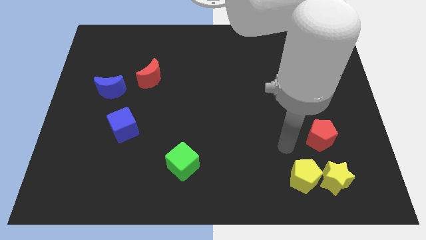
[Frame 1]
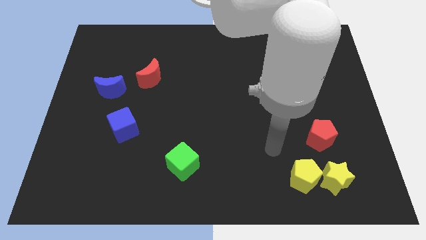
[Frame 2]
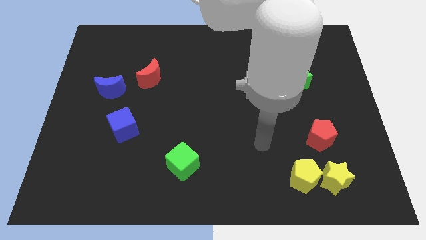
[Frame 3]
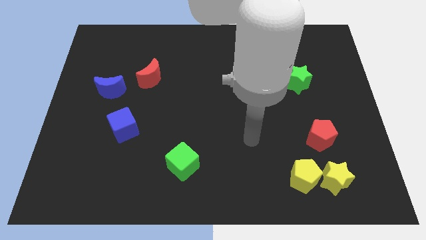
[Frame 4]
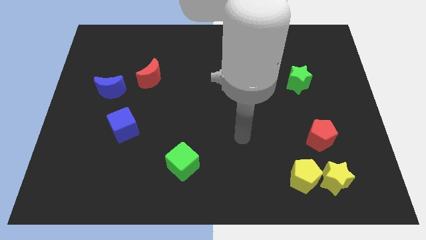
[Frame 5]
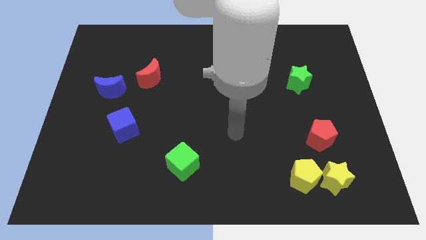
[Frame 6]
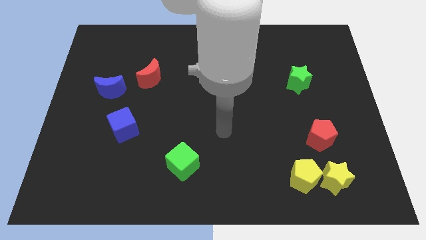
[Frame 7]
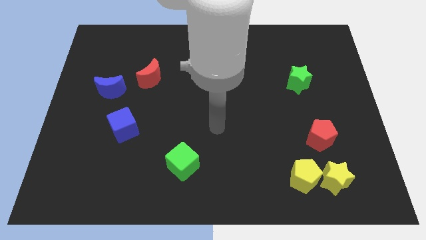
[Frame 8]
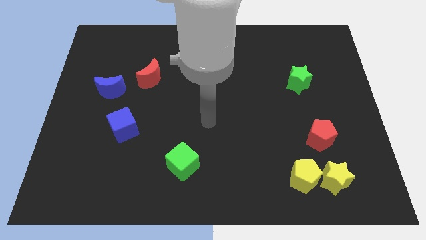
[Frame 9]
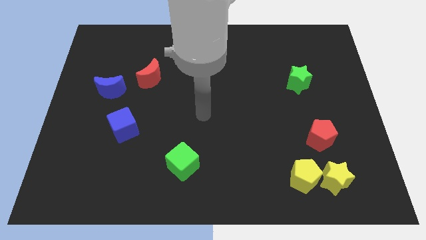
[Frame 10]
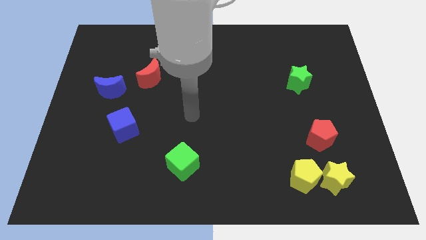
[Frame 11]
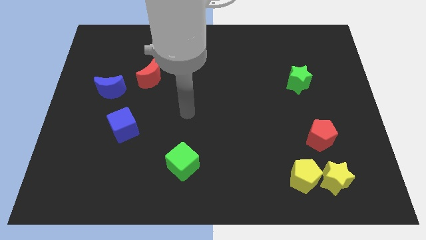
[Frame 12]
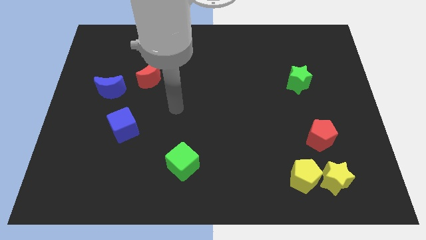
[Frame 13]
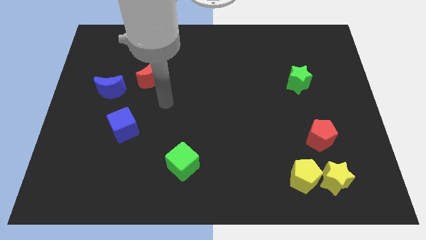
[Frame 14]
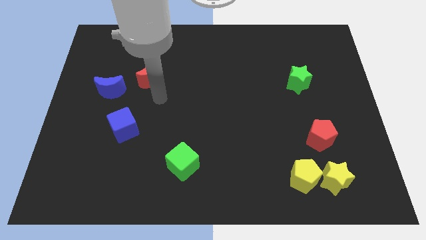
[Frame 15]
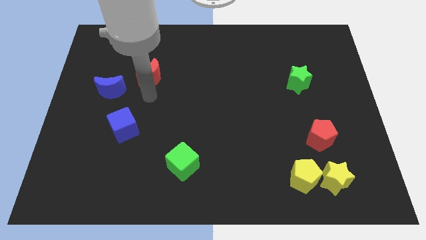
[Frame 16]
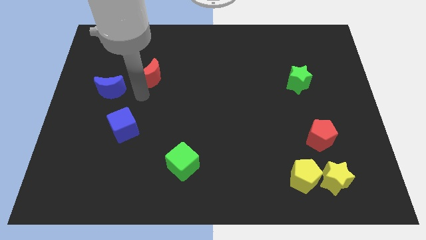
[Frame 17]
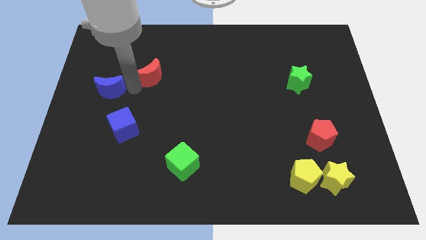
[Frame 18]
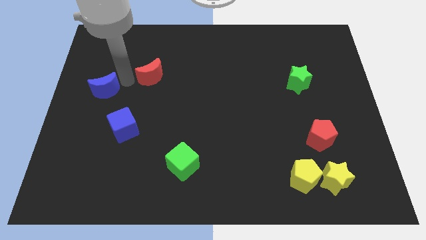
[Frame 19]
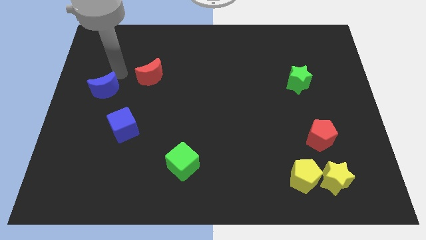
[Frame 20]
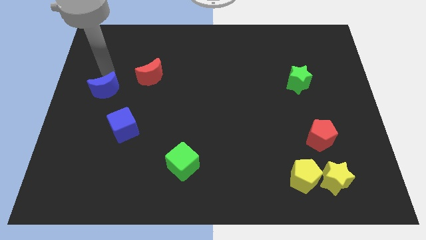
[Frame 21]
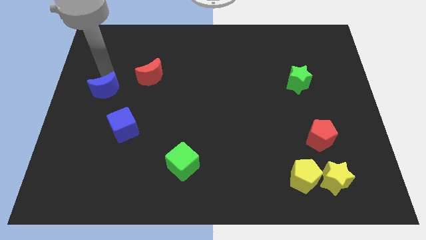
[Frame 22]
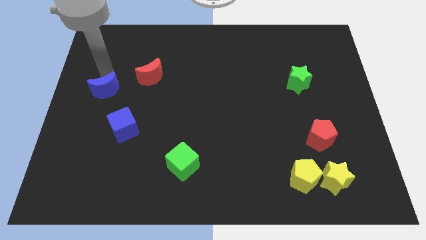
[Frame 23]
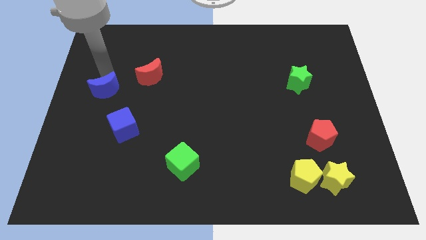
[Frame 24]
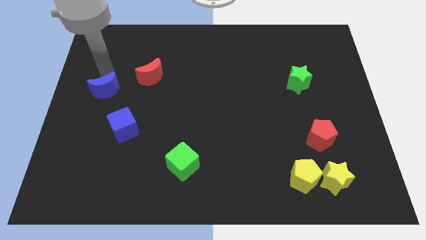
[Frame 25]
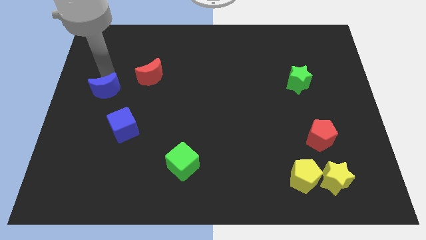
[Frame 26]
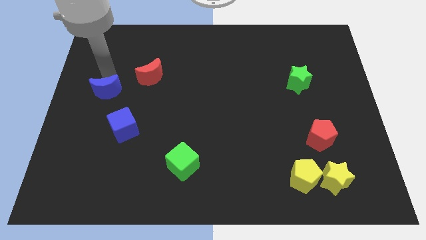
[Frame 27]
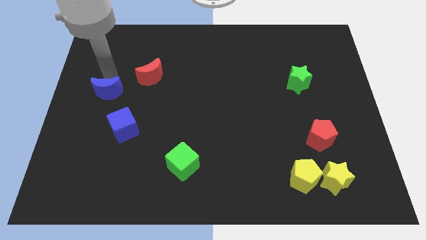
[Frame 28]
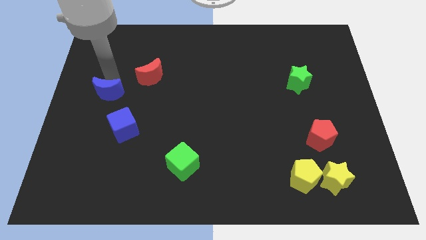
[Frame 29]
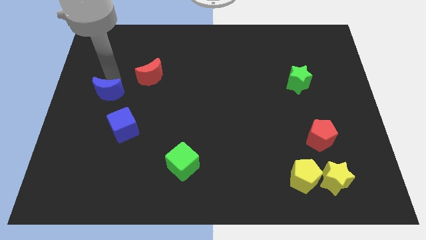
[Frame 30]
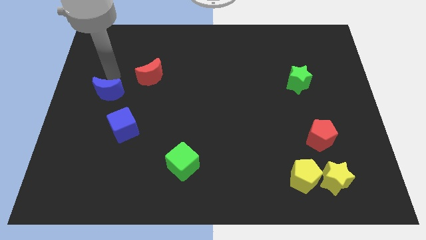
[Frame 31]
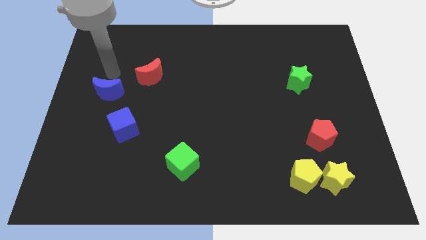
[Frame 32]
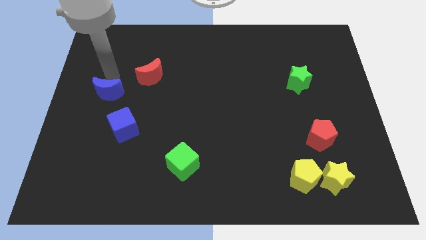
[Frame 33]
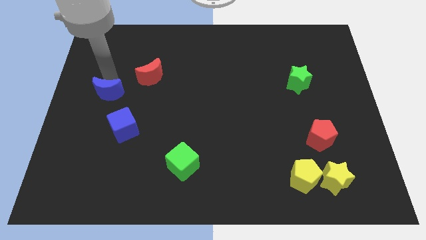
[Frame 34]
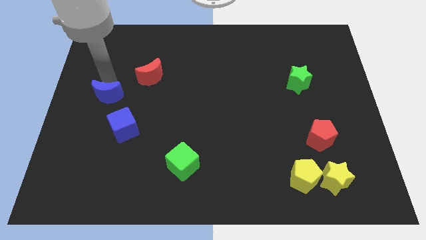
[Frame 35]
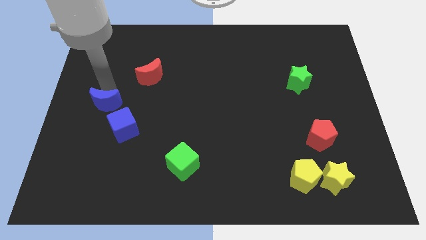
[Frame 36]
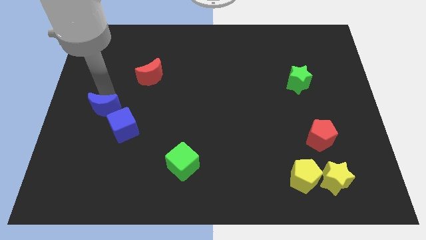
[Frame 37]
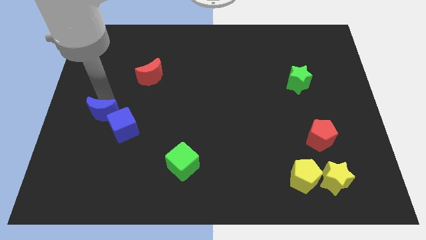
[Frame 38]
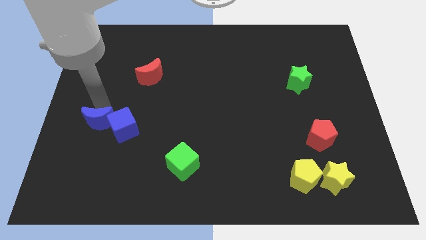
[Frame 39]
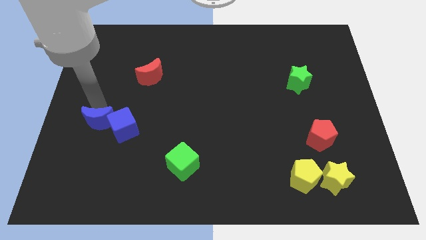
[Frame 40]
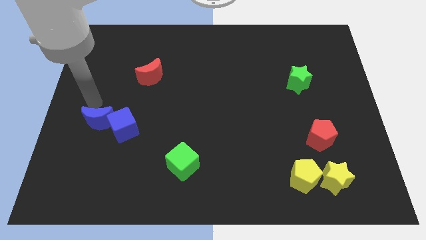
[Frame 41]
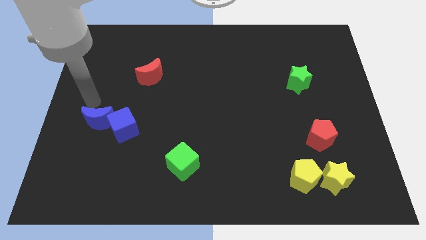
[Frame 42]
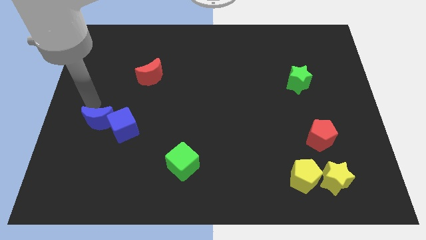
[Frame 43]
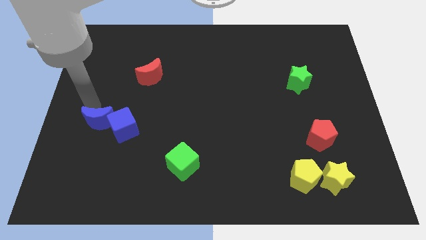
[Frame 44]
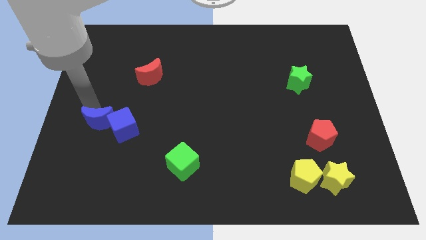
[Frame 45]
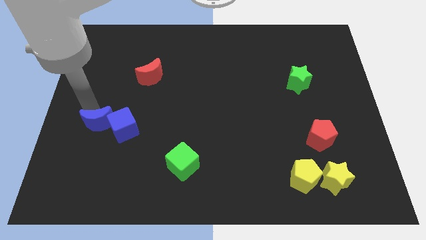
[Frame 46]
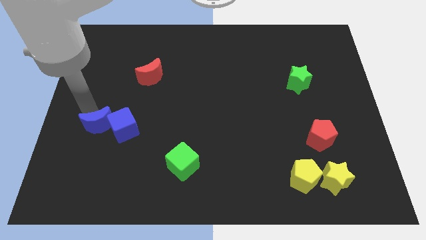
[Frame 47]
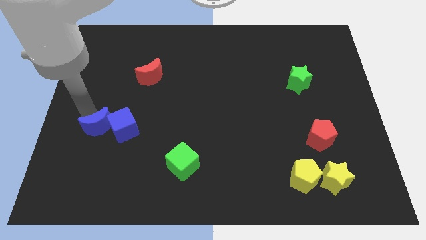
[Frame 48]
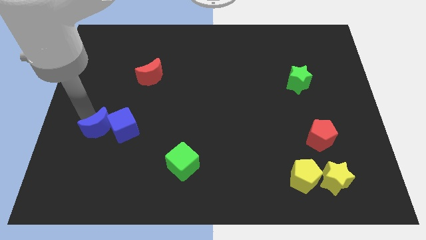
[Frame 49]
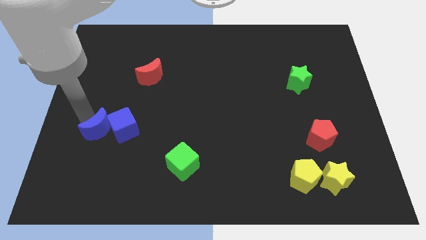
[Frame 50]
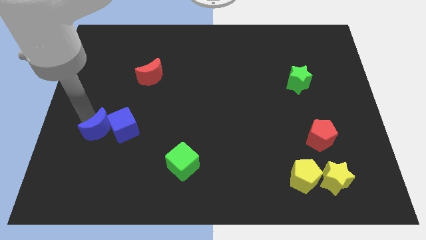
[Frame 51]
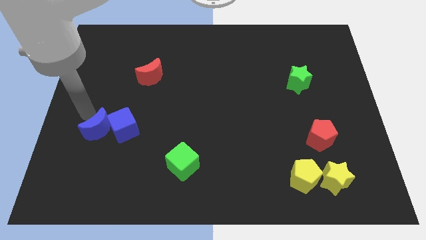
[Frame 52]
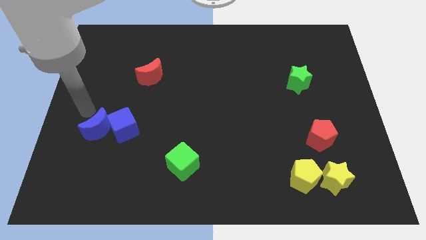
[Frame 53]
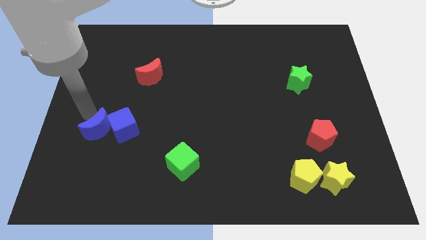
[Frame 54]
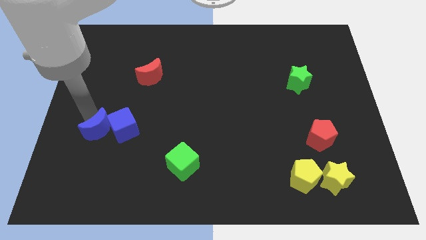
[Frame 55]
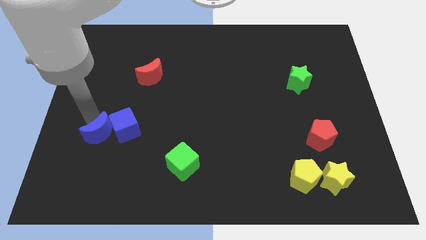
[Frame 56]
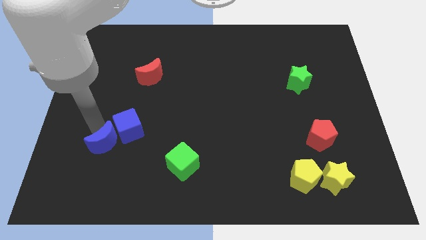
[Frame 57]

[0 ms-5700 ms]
put the blue moon below the blue cube

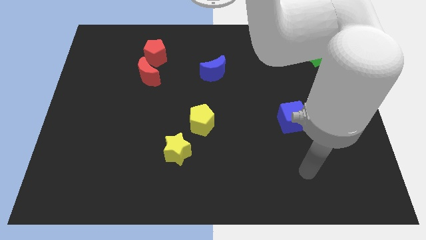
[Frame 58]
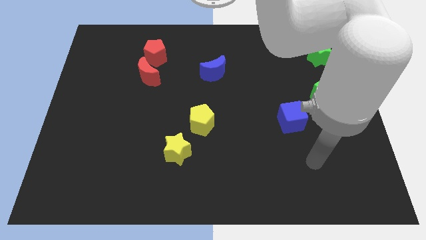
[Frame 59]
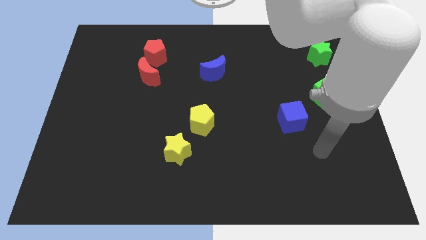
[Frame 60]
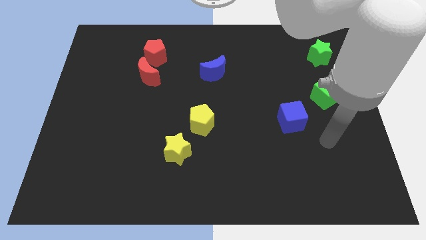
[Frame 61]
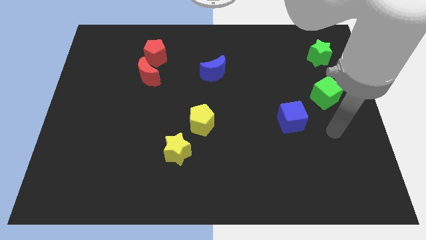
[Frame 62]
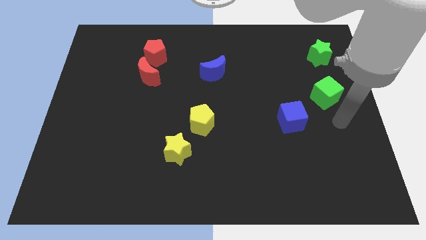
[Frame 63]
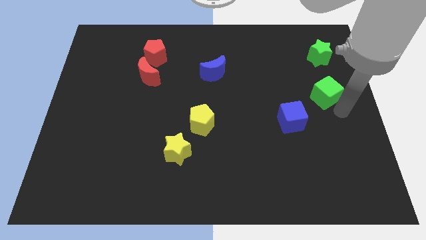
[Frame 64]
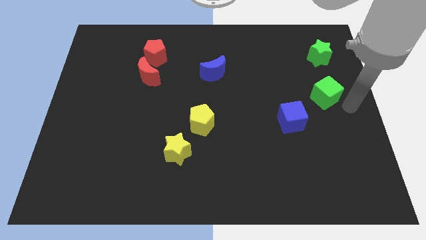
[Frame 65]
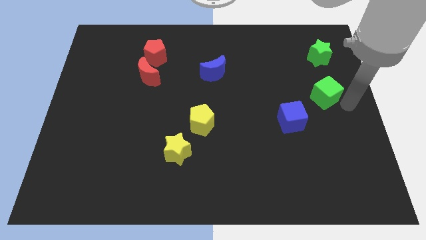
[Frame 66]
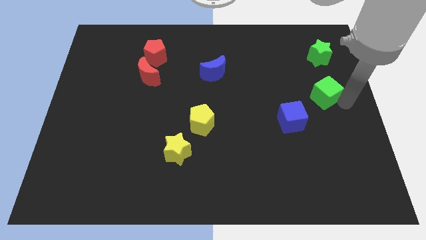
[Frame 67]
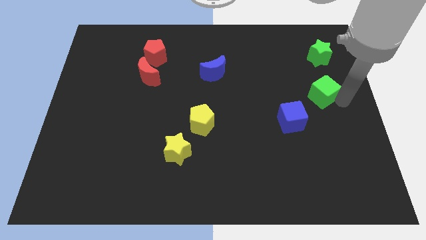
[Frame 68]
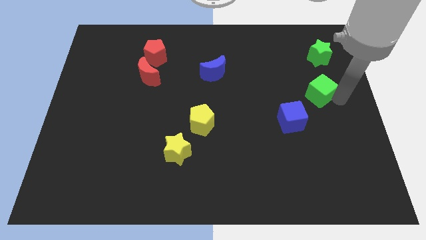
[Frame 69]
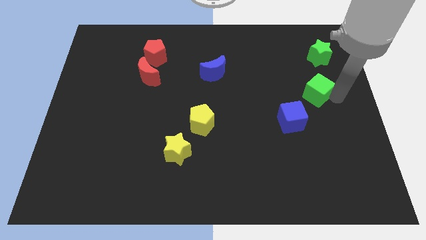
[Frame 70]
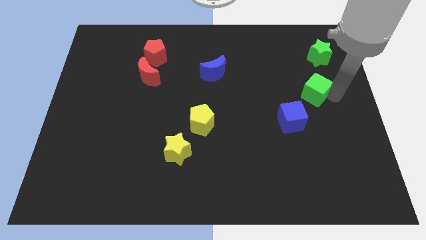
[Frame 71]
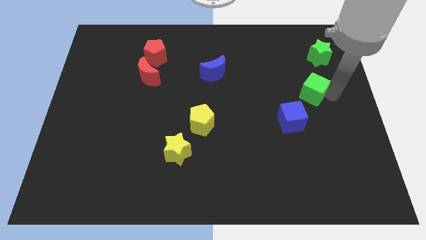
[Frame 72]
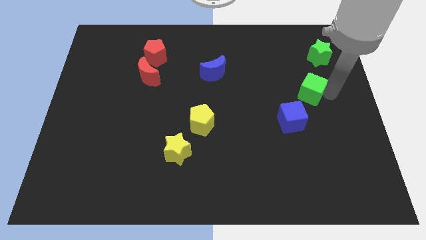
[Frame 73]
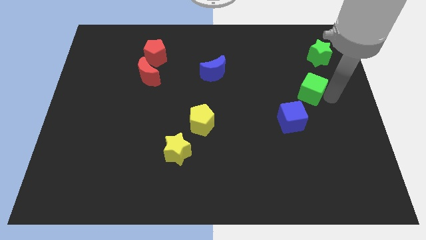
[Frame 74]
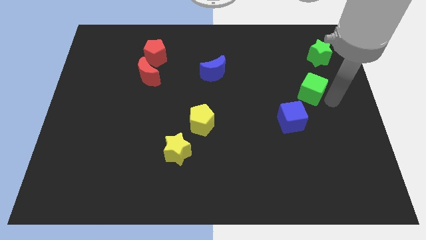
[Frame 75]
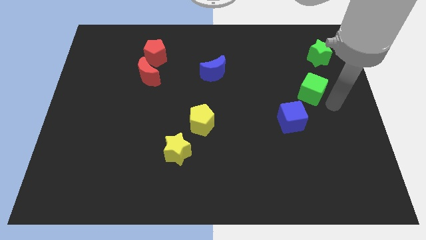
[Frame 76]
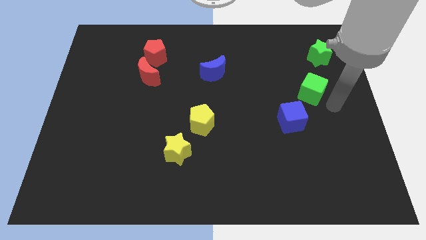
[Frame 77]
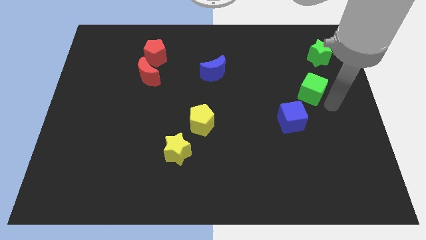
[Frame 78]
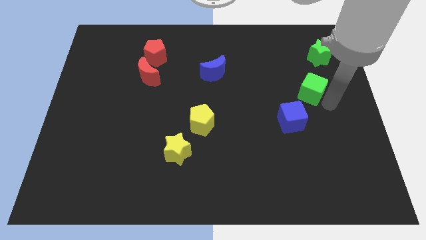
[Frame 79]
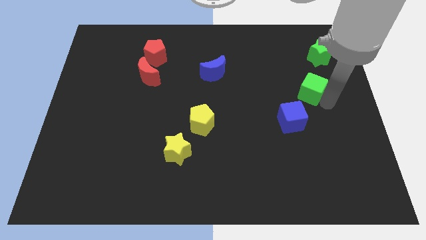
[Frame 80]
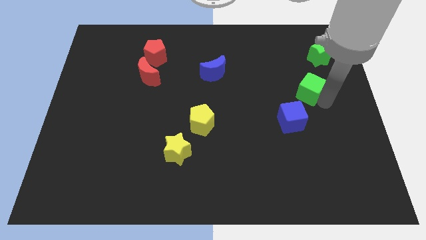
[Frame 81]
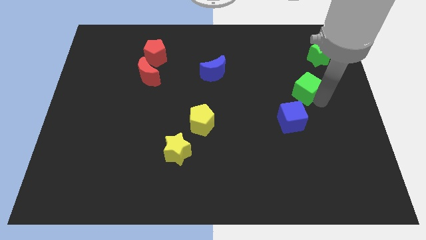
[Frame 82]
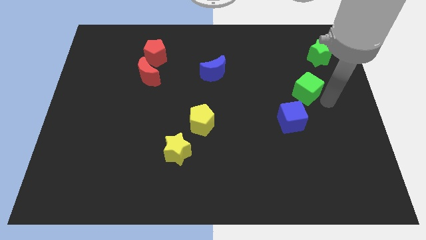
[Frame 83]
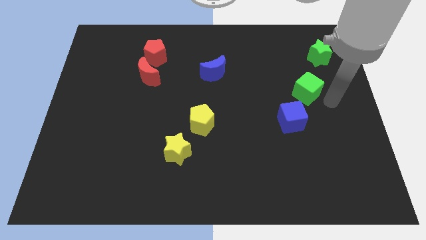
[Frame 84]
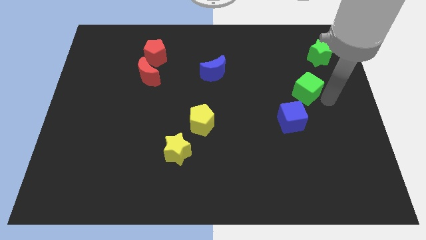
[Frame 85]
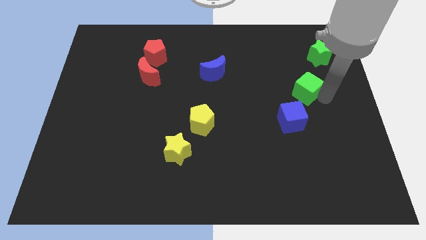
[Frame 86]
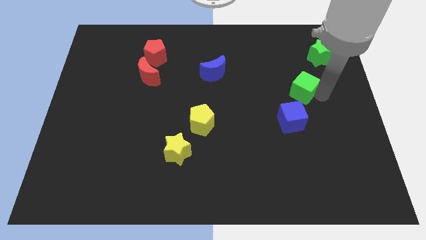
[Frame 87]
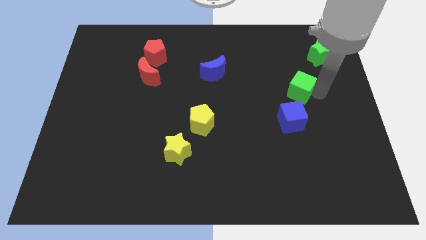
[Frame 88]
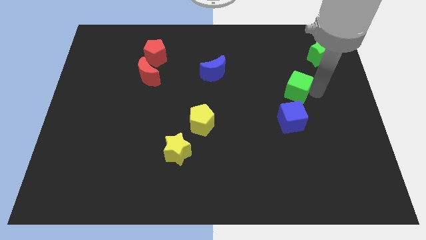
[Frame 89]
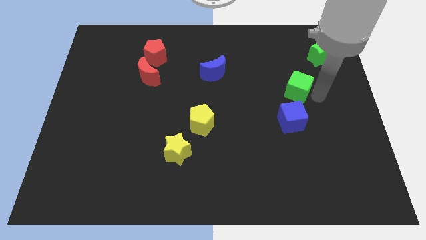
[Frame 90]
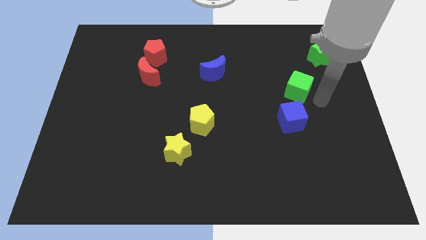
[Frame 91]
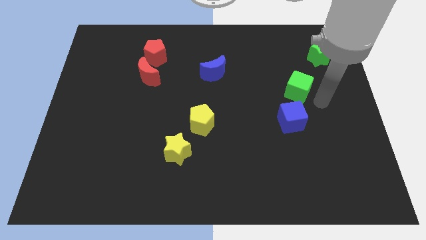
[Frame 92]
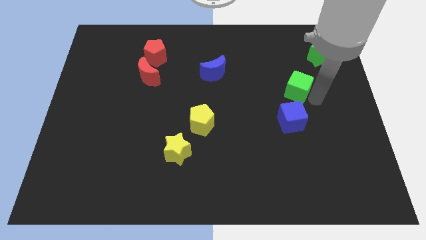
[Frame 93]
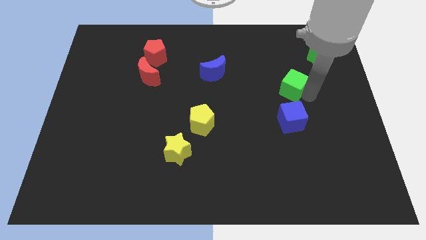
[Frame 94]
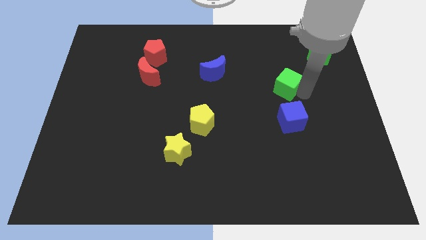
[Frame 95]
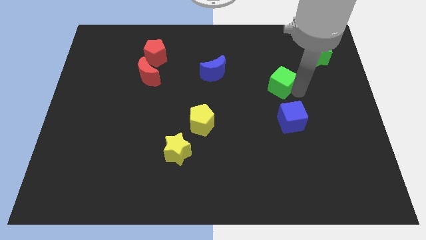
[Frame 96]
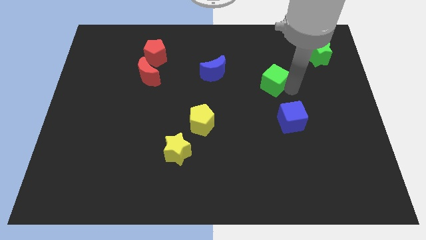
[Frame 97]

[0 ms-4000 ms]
slide the green cube to the right of the blue moon
